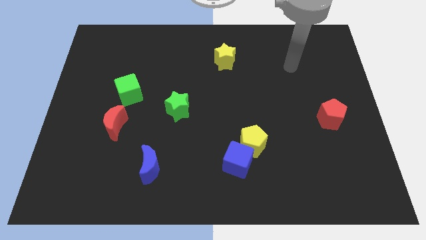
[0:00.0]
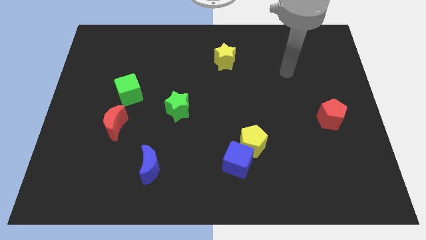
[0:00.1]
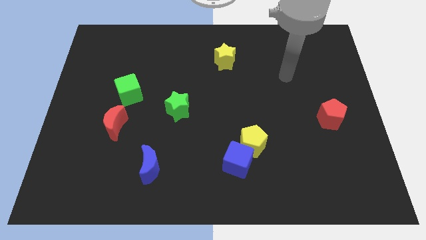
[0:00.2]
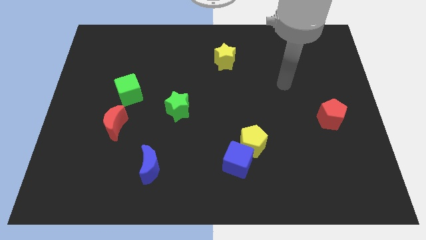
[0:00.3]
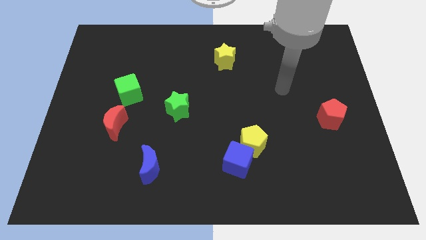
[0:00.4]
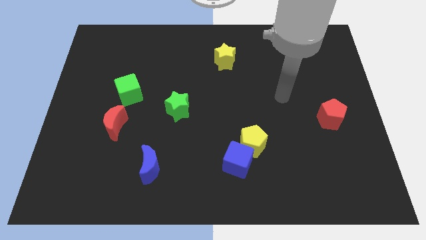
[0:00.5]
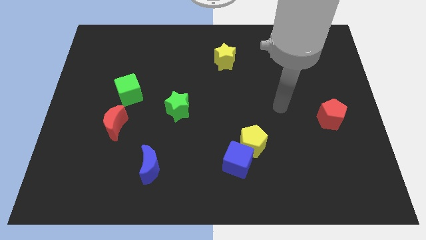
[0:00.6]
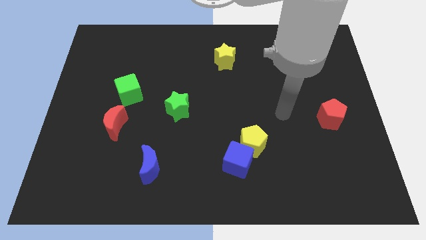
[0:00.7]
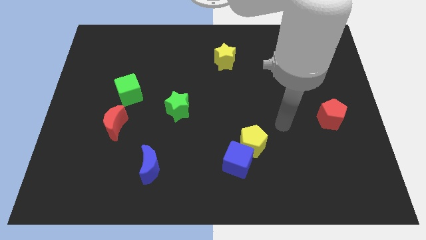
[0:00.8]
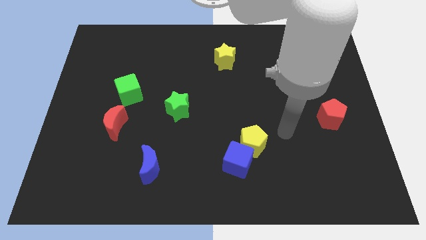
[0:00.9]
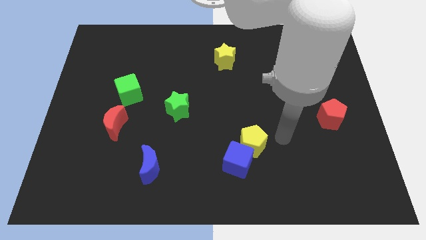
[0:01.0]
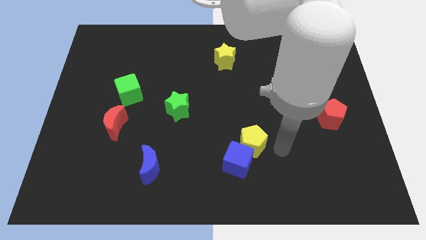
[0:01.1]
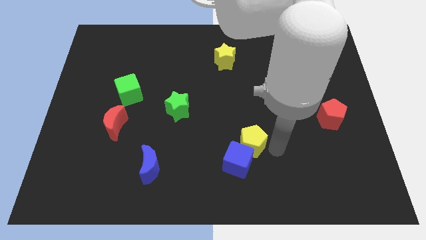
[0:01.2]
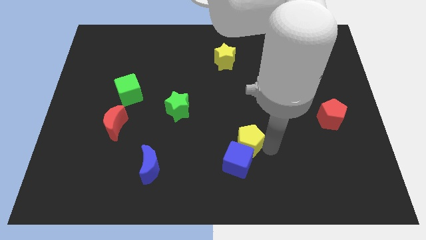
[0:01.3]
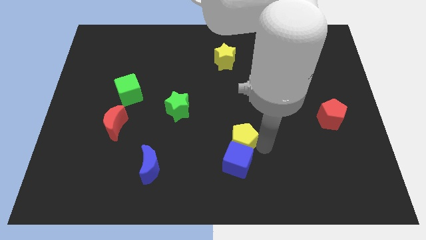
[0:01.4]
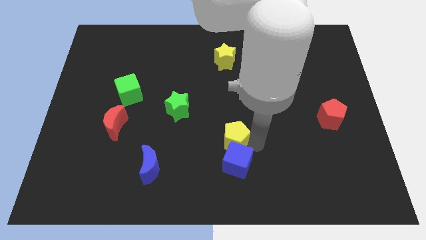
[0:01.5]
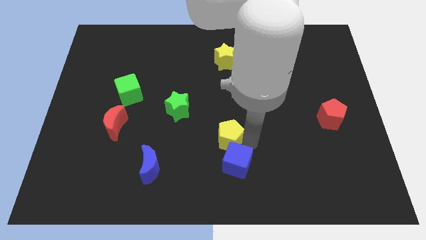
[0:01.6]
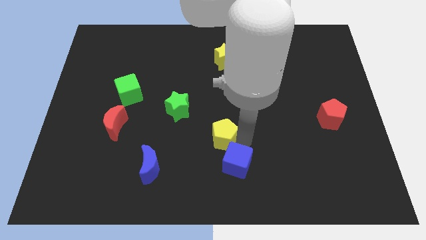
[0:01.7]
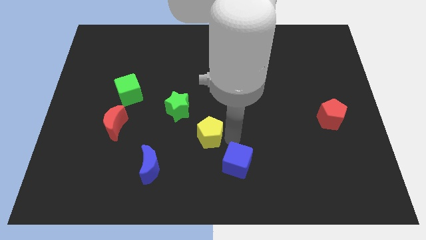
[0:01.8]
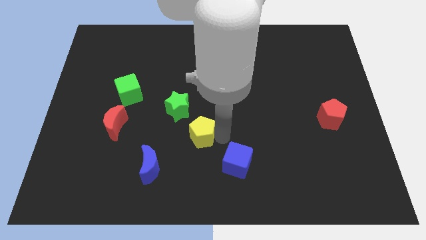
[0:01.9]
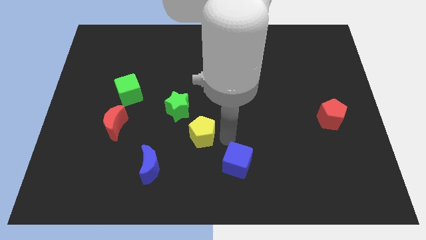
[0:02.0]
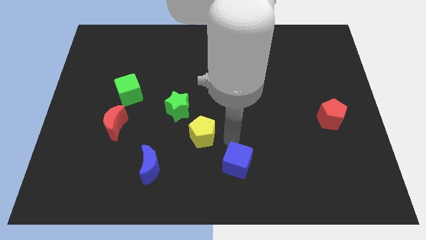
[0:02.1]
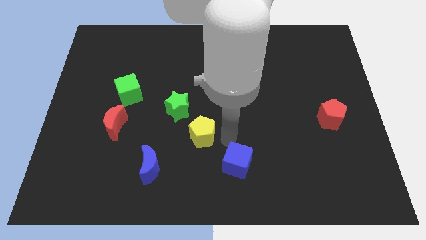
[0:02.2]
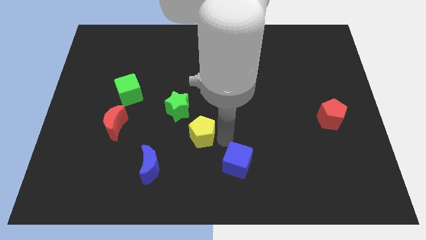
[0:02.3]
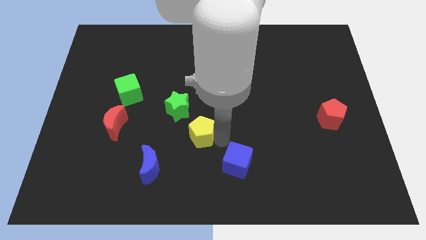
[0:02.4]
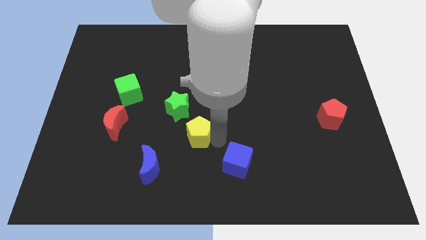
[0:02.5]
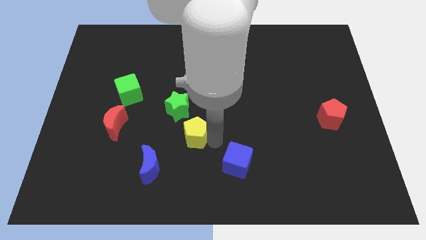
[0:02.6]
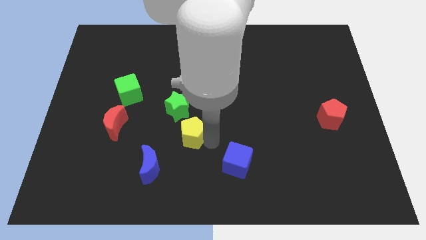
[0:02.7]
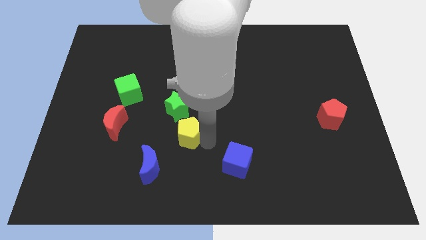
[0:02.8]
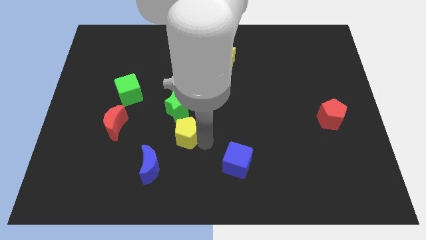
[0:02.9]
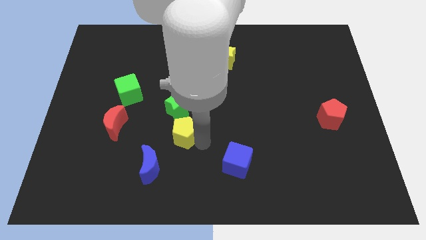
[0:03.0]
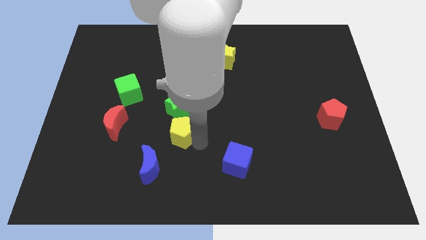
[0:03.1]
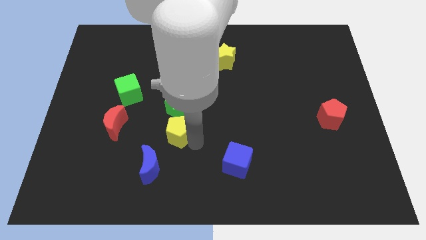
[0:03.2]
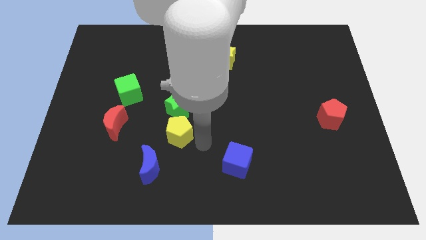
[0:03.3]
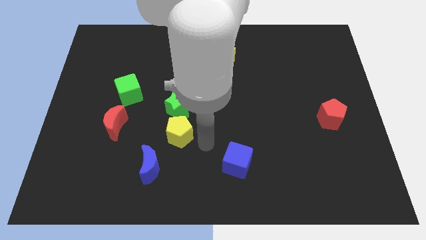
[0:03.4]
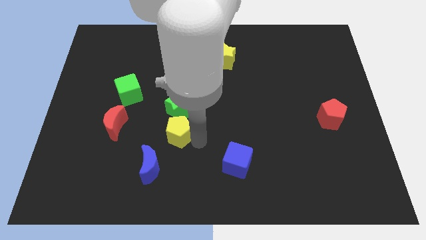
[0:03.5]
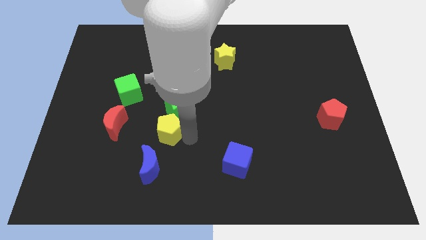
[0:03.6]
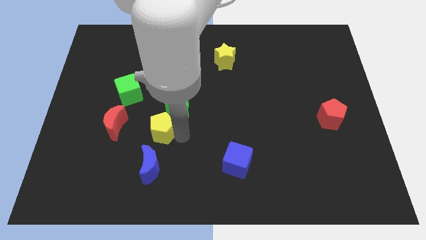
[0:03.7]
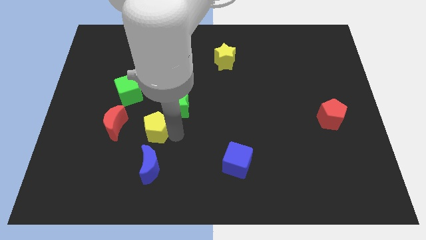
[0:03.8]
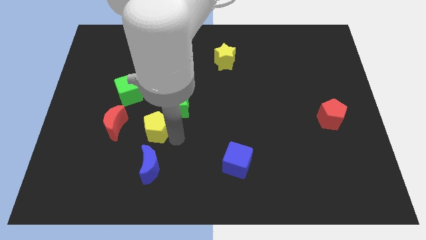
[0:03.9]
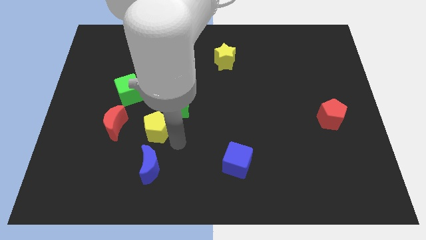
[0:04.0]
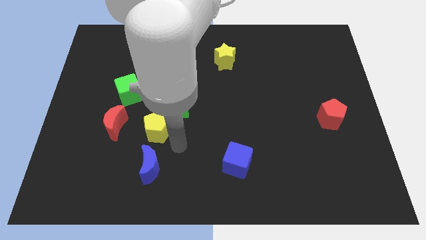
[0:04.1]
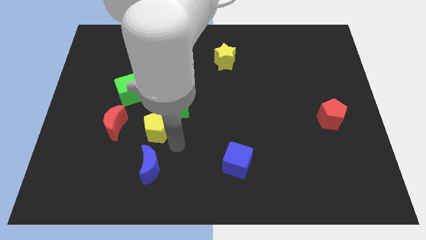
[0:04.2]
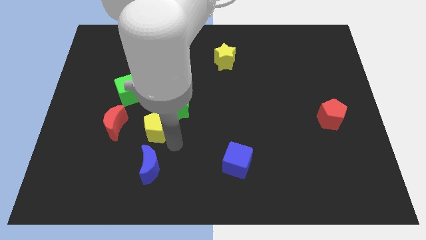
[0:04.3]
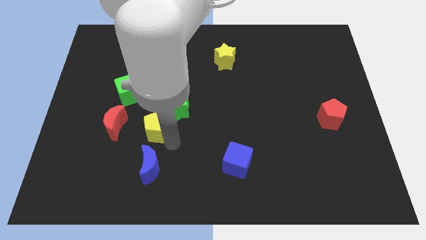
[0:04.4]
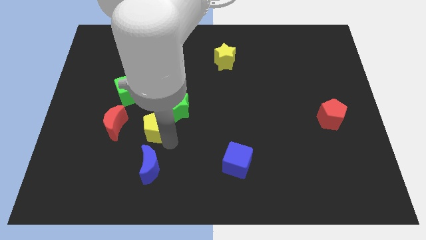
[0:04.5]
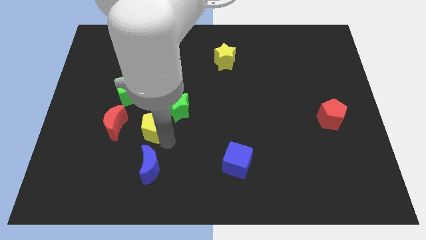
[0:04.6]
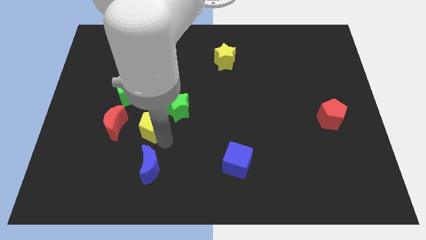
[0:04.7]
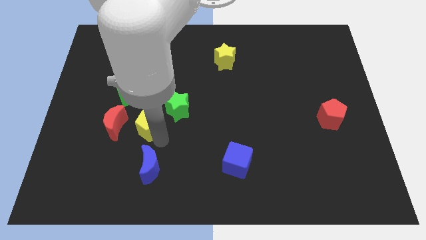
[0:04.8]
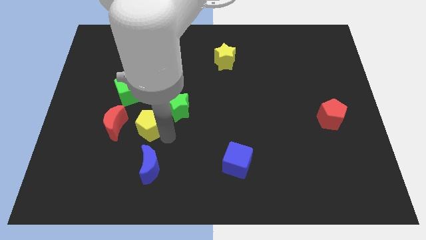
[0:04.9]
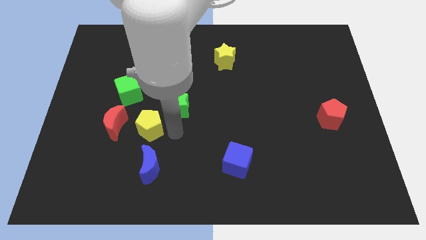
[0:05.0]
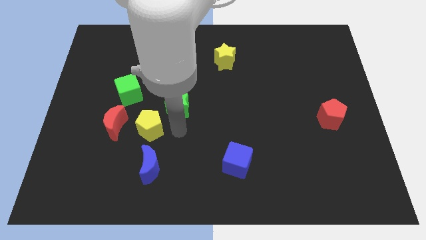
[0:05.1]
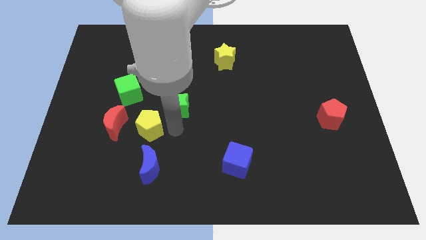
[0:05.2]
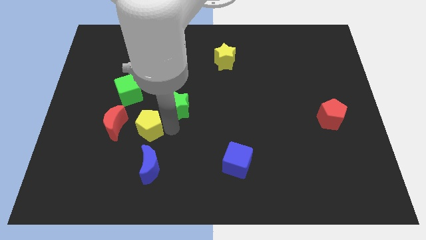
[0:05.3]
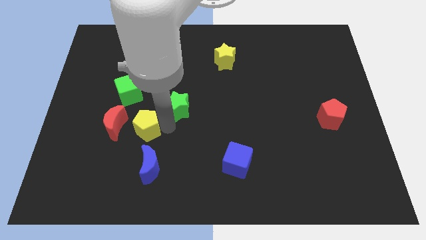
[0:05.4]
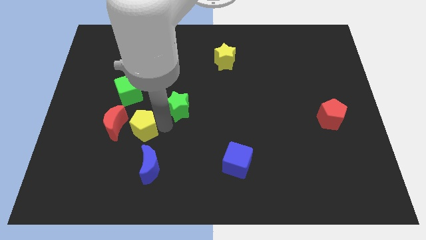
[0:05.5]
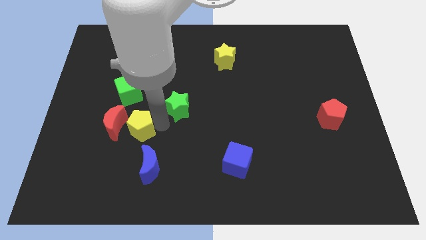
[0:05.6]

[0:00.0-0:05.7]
slide the yellow pentagon to the red moon

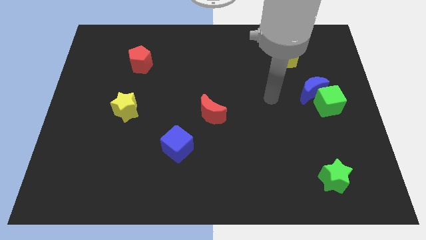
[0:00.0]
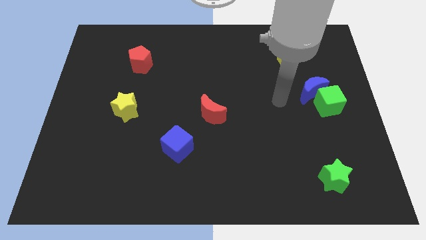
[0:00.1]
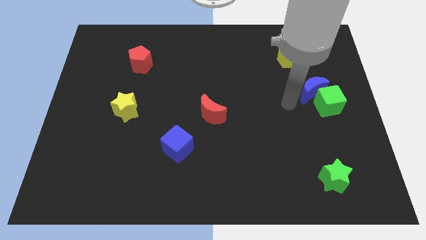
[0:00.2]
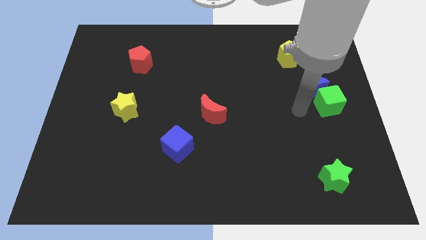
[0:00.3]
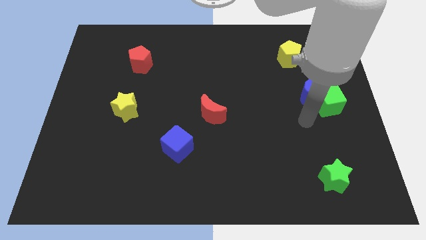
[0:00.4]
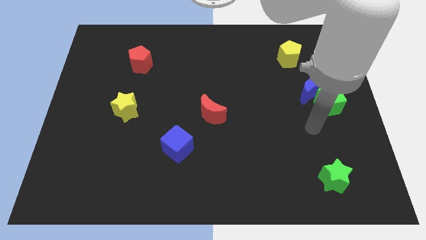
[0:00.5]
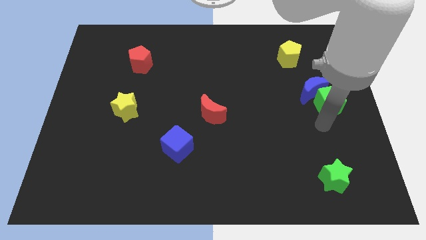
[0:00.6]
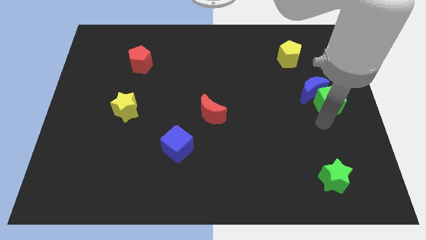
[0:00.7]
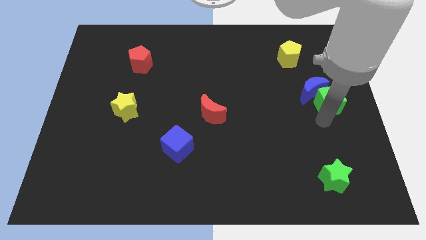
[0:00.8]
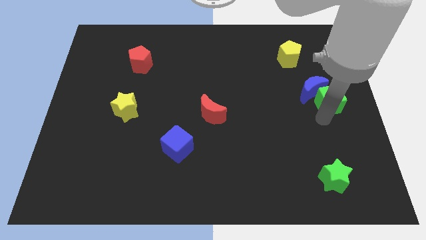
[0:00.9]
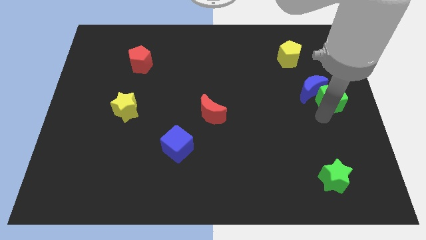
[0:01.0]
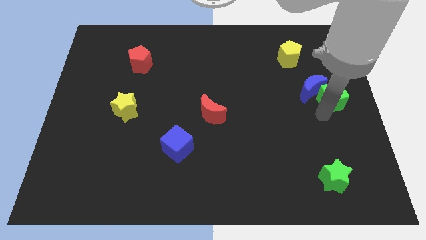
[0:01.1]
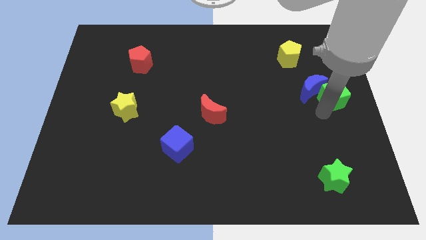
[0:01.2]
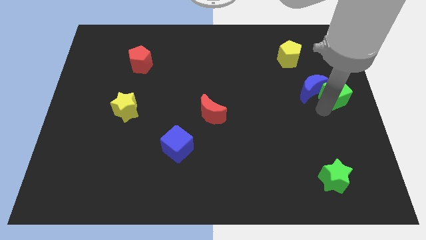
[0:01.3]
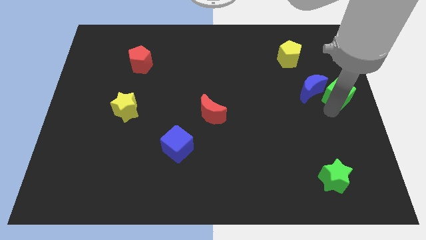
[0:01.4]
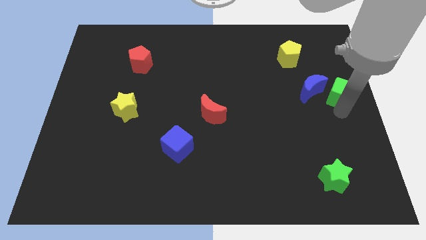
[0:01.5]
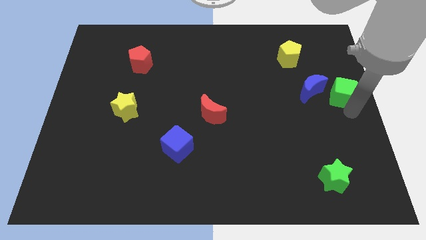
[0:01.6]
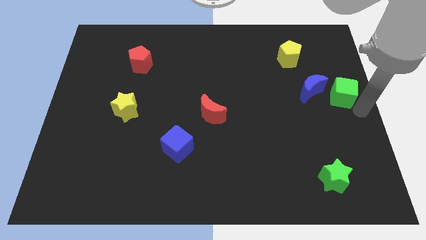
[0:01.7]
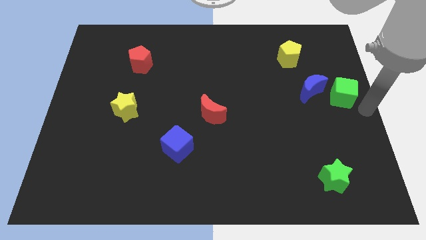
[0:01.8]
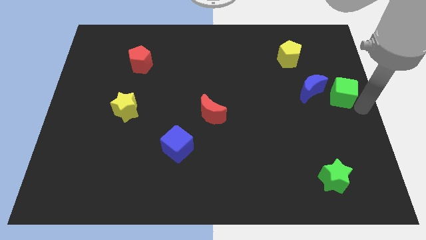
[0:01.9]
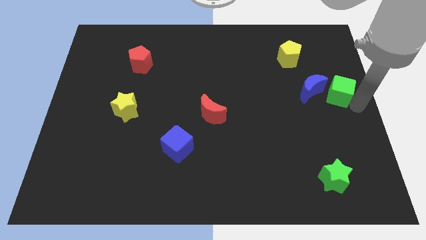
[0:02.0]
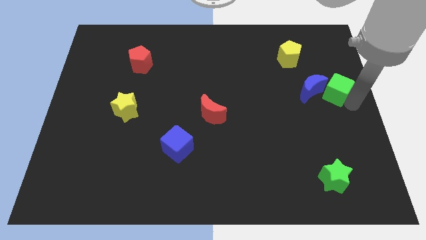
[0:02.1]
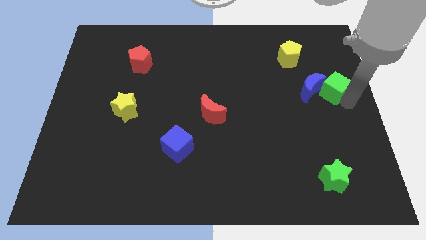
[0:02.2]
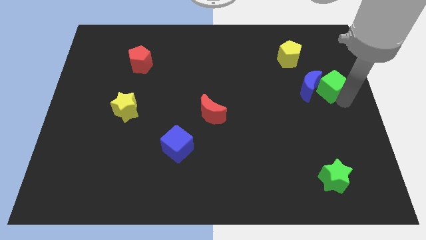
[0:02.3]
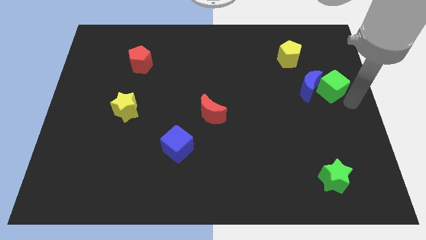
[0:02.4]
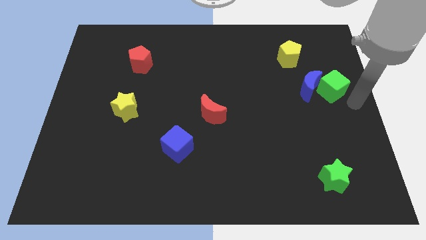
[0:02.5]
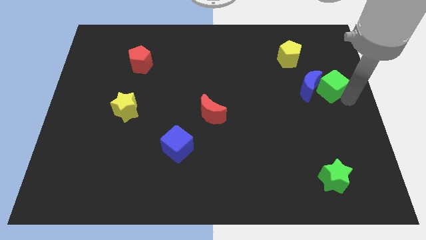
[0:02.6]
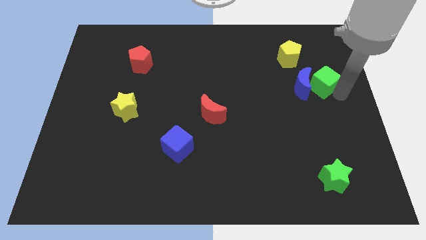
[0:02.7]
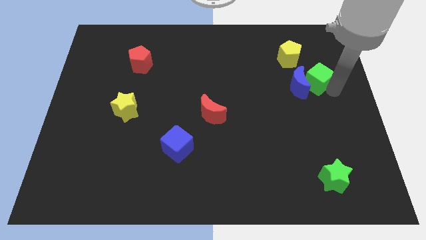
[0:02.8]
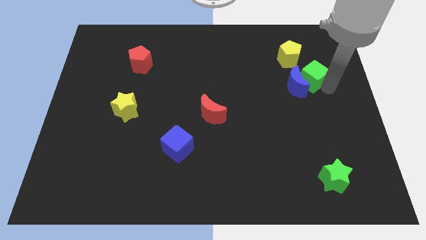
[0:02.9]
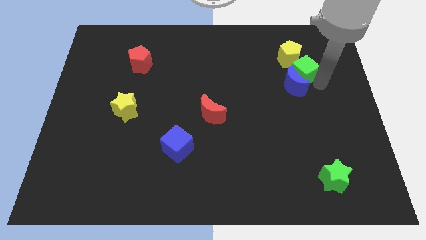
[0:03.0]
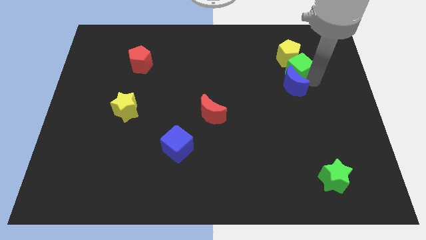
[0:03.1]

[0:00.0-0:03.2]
push the green cube towards the yellow pentagon
